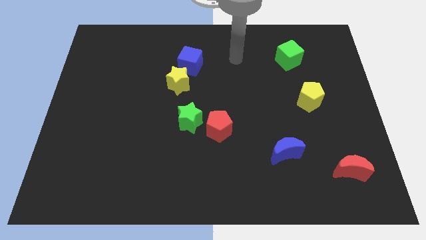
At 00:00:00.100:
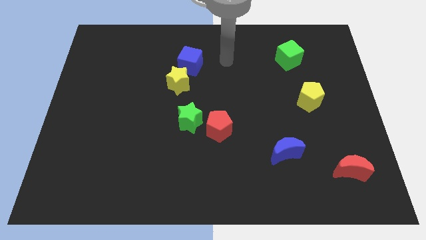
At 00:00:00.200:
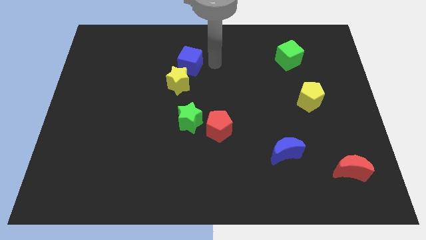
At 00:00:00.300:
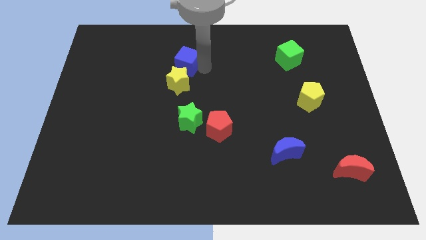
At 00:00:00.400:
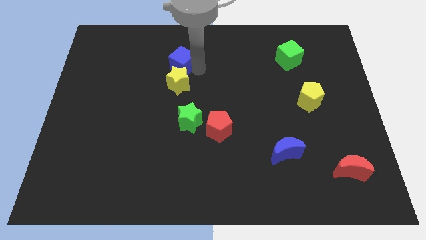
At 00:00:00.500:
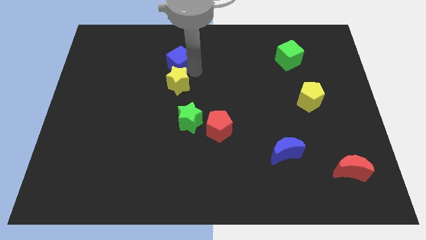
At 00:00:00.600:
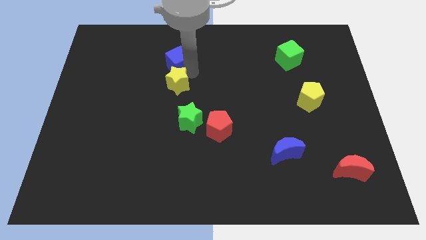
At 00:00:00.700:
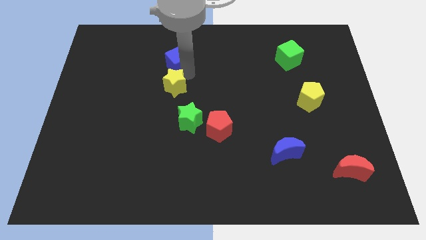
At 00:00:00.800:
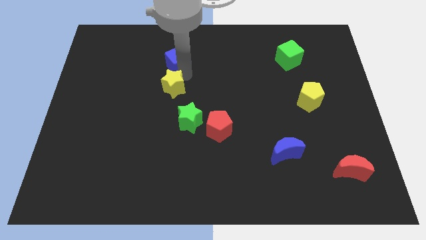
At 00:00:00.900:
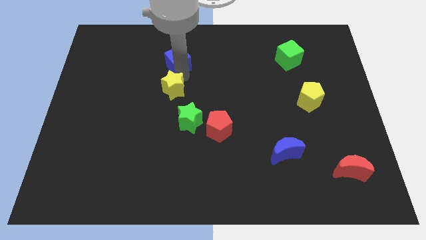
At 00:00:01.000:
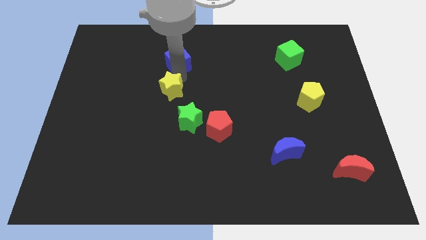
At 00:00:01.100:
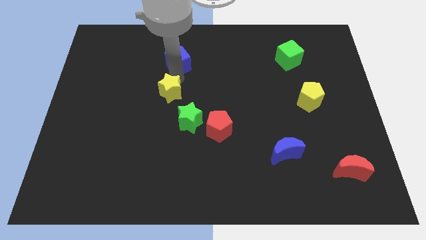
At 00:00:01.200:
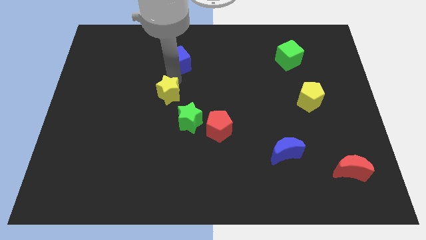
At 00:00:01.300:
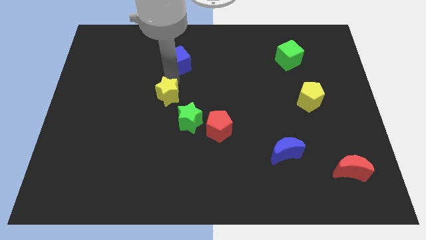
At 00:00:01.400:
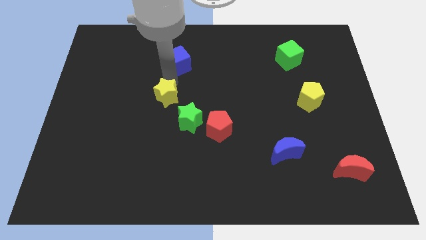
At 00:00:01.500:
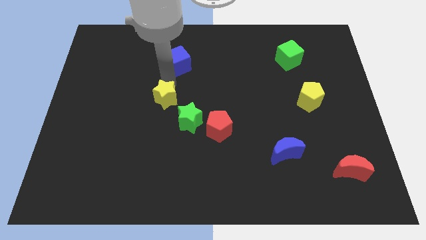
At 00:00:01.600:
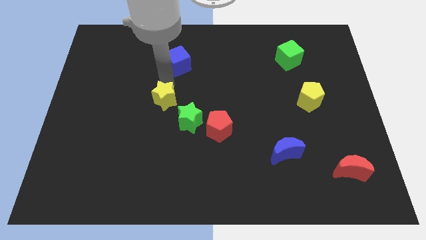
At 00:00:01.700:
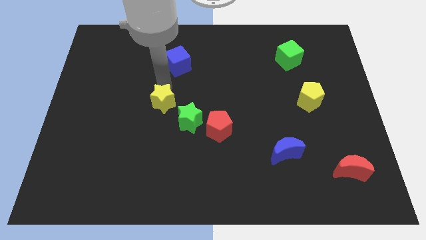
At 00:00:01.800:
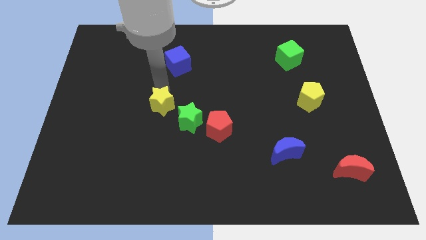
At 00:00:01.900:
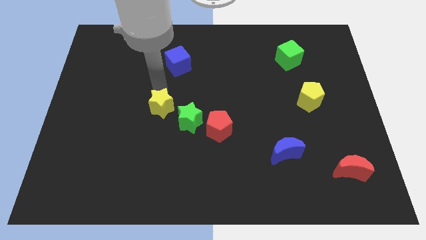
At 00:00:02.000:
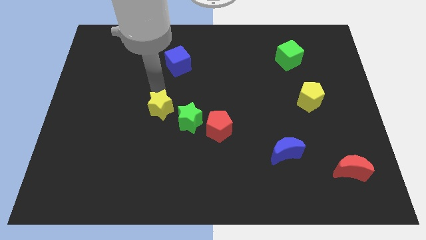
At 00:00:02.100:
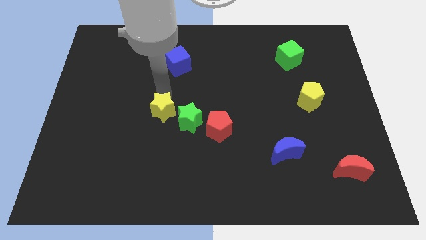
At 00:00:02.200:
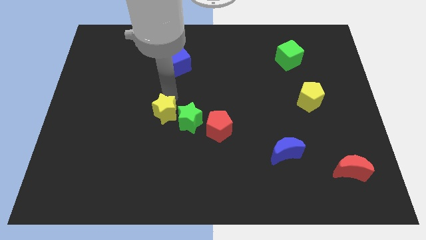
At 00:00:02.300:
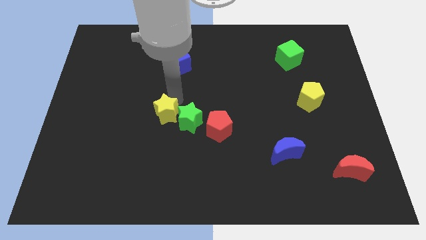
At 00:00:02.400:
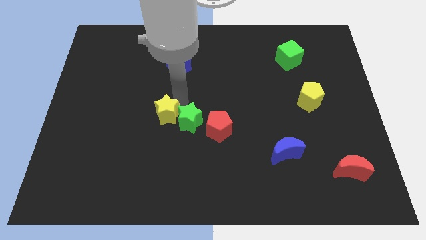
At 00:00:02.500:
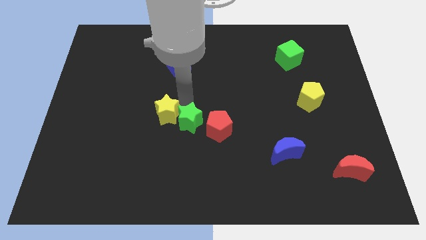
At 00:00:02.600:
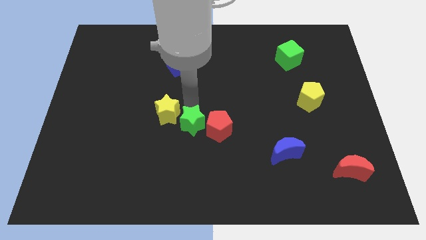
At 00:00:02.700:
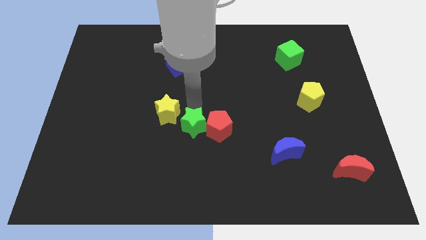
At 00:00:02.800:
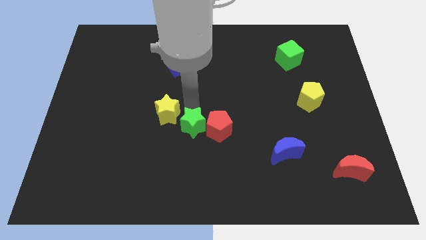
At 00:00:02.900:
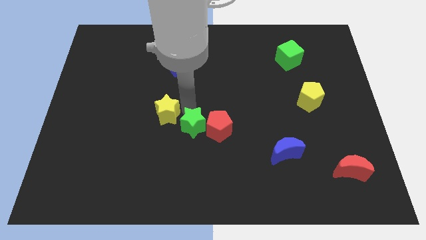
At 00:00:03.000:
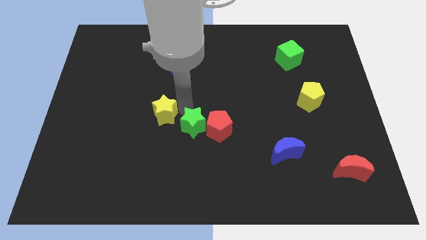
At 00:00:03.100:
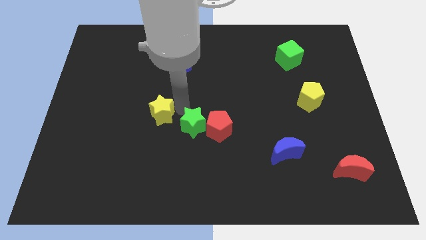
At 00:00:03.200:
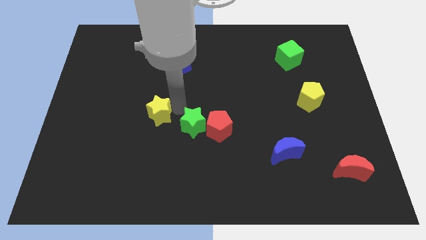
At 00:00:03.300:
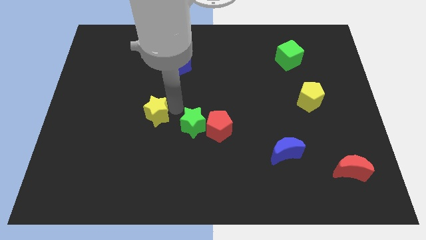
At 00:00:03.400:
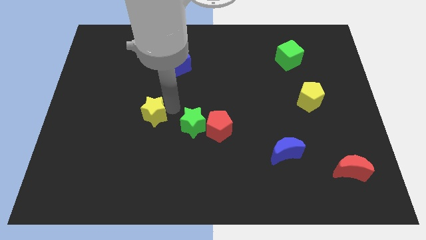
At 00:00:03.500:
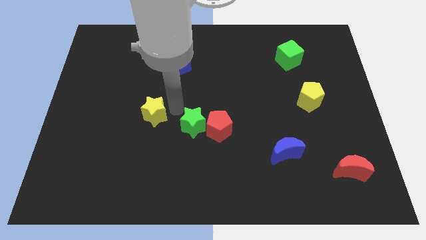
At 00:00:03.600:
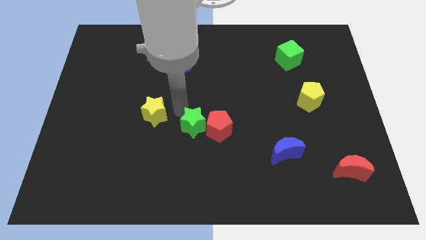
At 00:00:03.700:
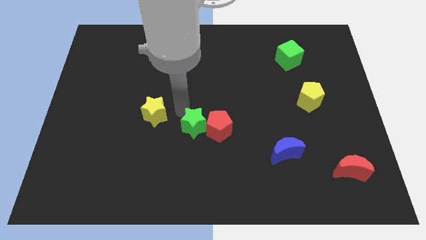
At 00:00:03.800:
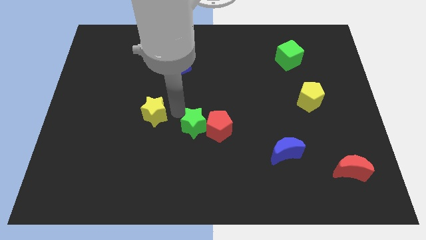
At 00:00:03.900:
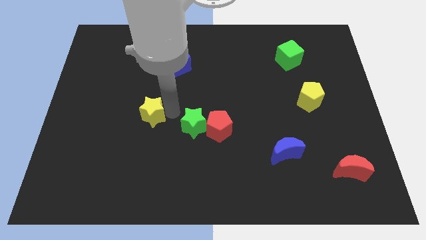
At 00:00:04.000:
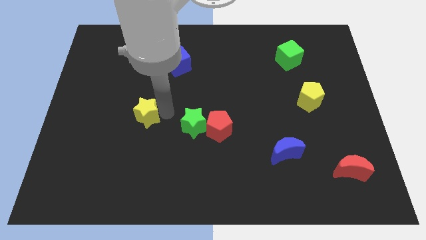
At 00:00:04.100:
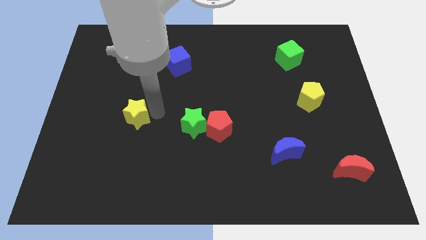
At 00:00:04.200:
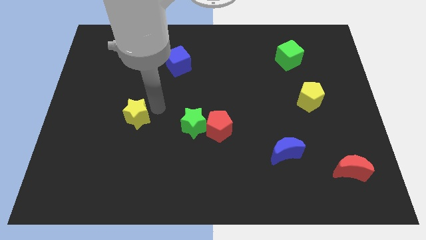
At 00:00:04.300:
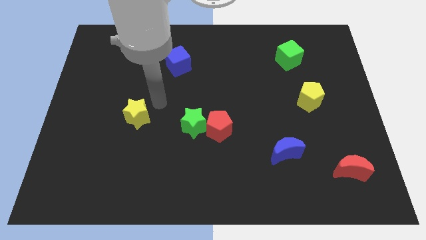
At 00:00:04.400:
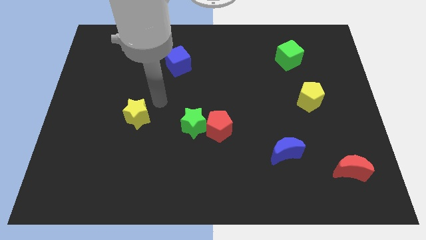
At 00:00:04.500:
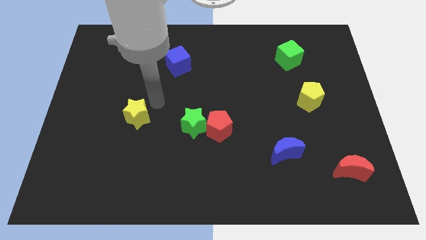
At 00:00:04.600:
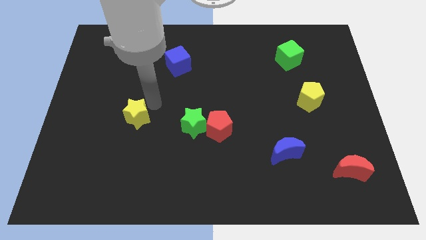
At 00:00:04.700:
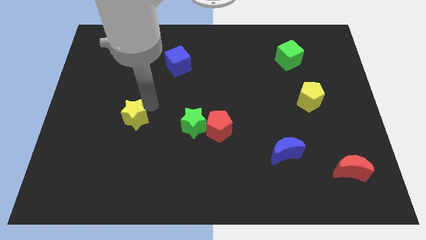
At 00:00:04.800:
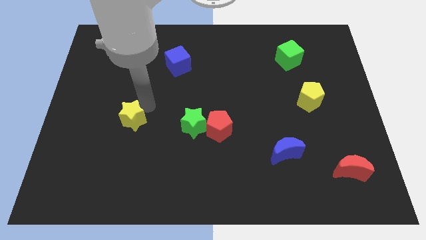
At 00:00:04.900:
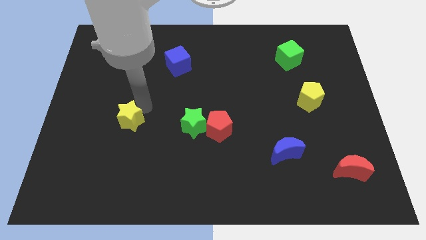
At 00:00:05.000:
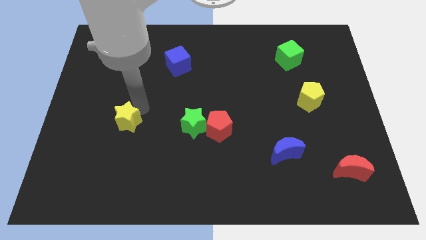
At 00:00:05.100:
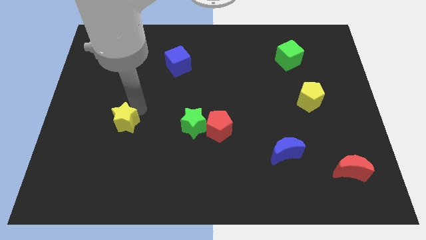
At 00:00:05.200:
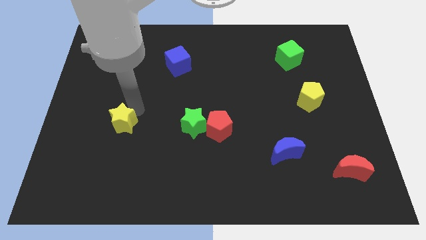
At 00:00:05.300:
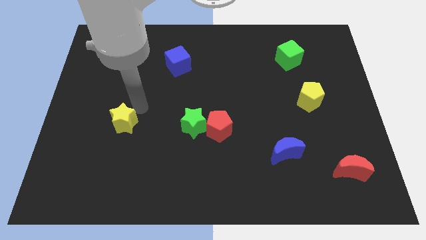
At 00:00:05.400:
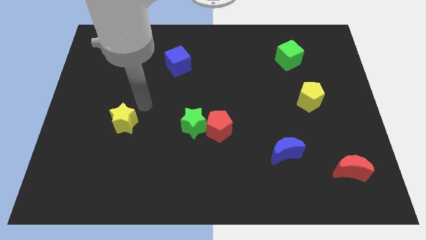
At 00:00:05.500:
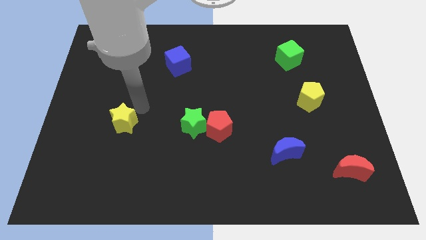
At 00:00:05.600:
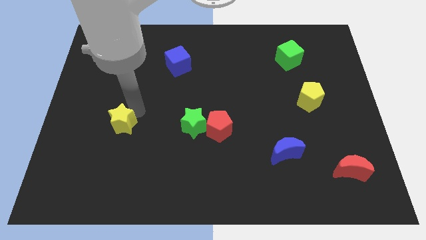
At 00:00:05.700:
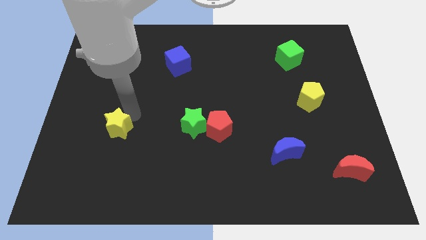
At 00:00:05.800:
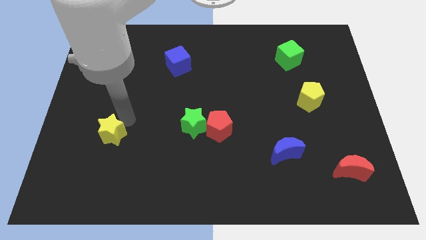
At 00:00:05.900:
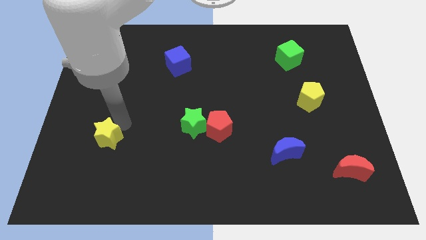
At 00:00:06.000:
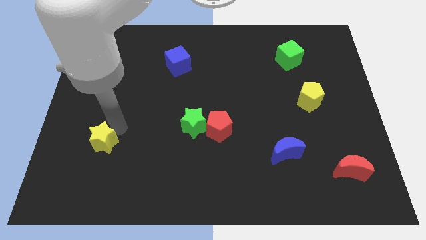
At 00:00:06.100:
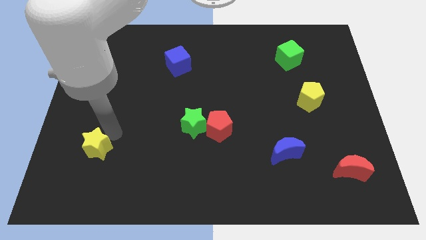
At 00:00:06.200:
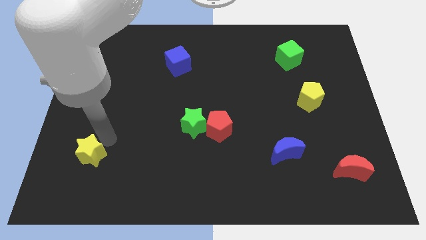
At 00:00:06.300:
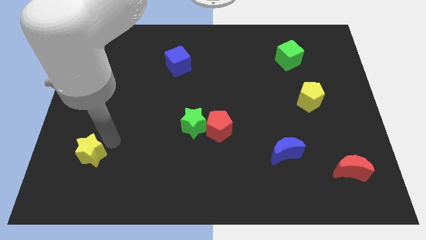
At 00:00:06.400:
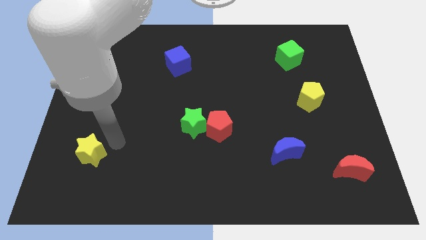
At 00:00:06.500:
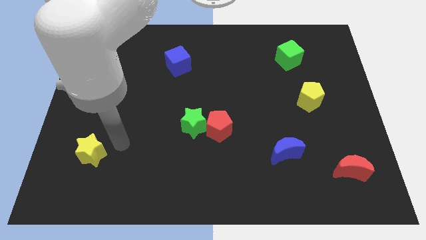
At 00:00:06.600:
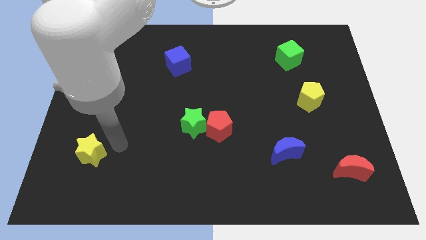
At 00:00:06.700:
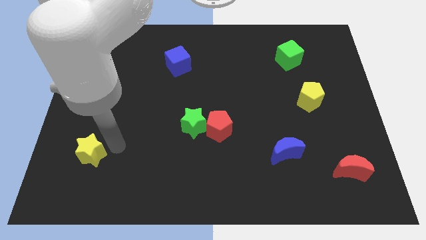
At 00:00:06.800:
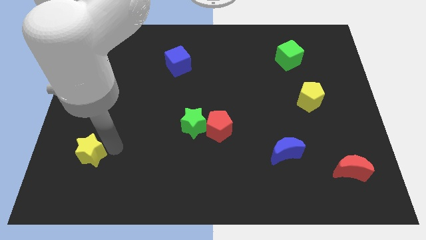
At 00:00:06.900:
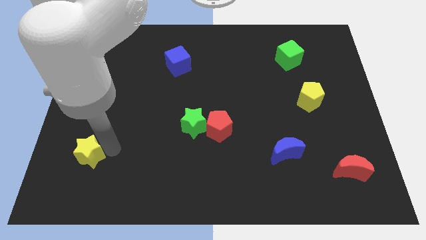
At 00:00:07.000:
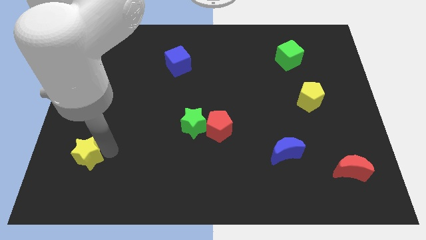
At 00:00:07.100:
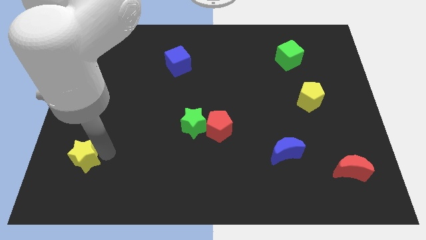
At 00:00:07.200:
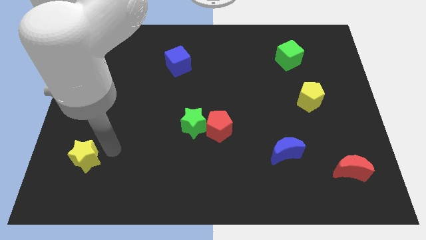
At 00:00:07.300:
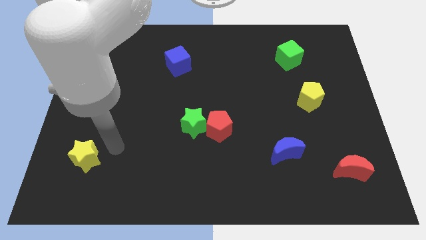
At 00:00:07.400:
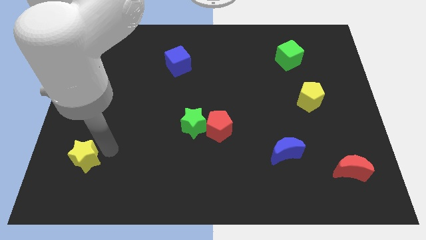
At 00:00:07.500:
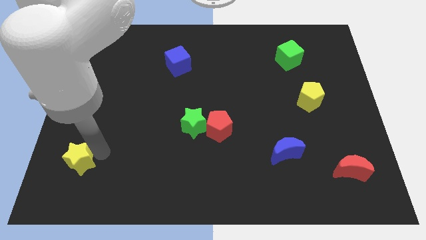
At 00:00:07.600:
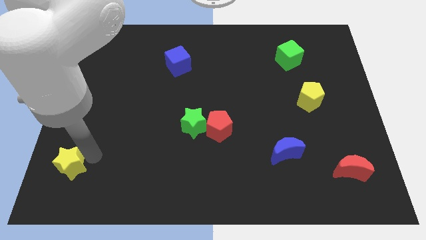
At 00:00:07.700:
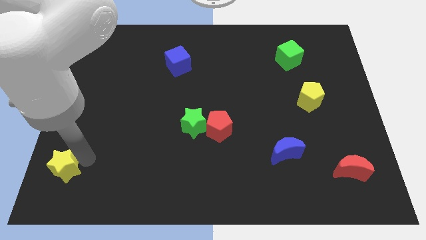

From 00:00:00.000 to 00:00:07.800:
move the yellow star to the bottom left corner
